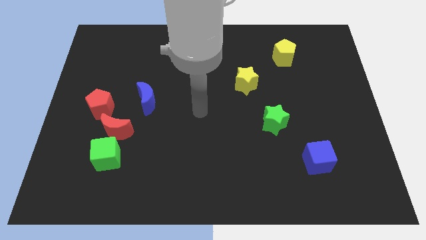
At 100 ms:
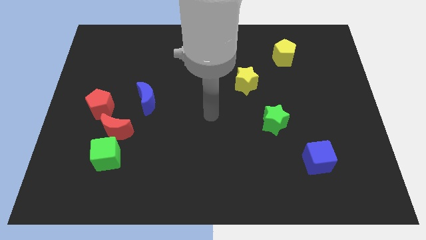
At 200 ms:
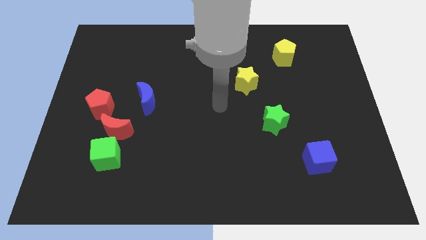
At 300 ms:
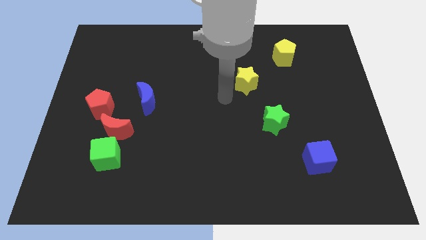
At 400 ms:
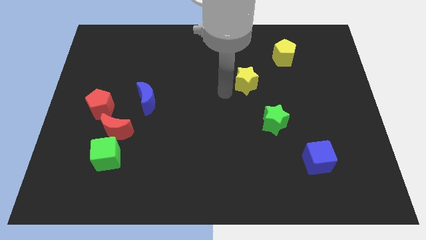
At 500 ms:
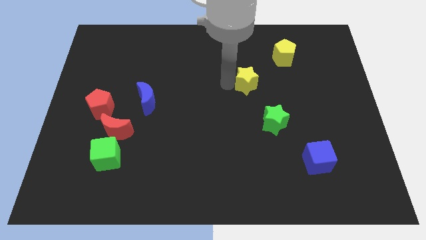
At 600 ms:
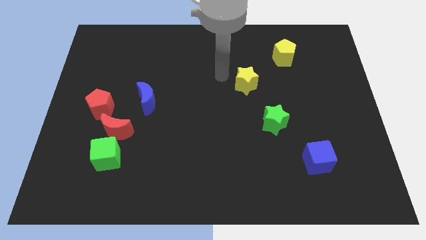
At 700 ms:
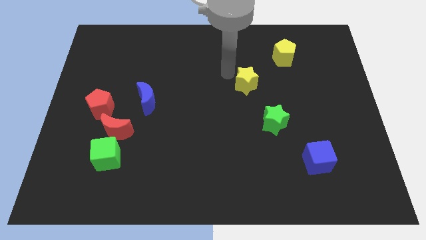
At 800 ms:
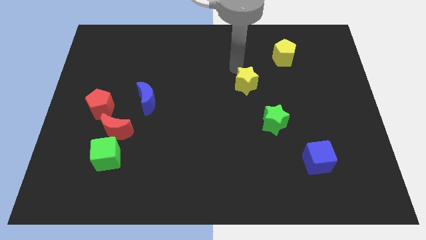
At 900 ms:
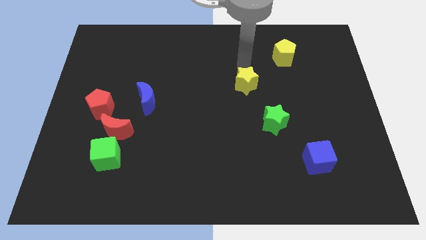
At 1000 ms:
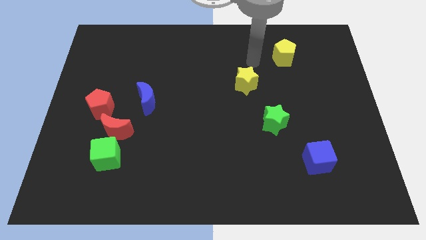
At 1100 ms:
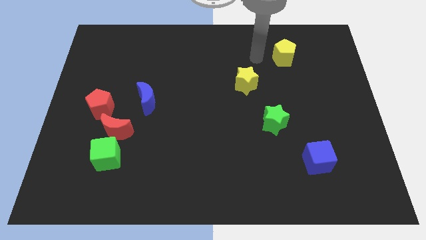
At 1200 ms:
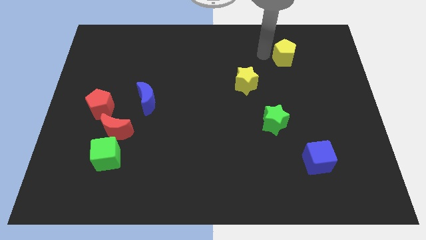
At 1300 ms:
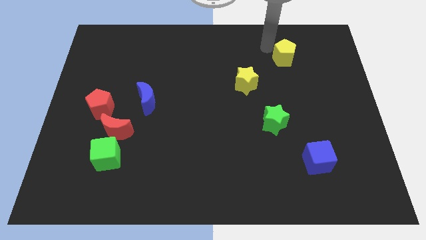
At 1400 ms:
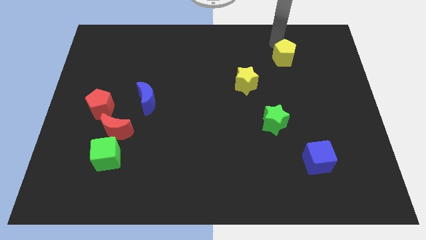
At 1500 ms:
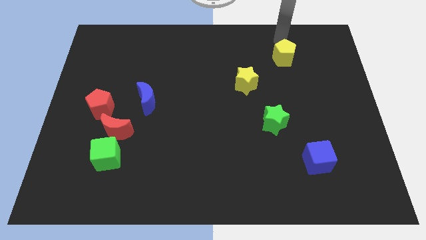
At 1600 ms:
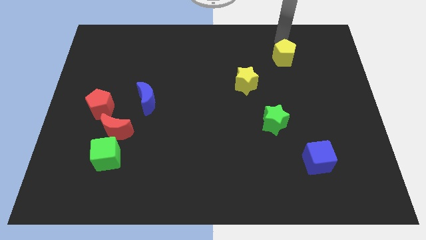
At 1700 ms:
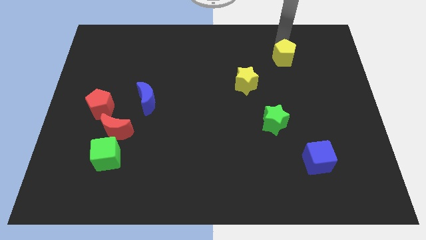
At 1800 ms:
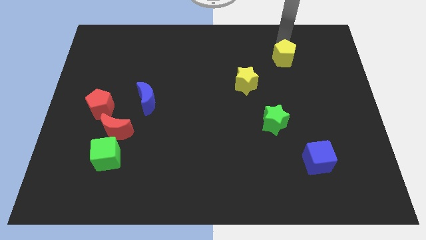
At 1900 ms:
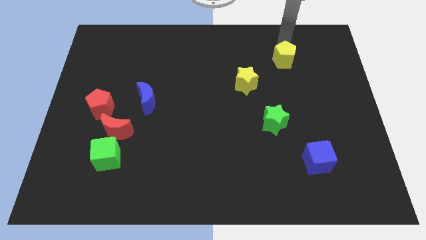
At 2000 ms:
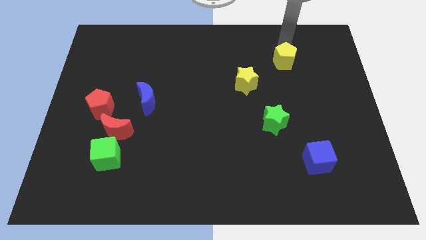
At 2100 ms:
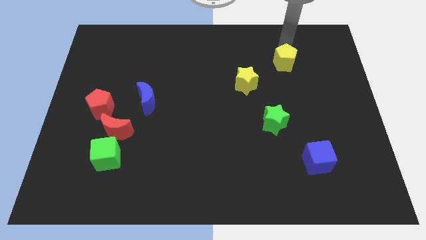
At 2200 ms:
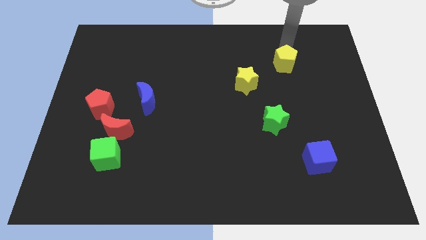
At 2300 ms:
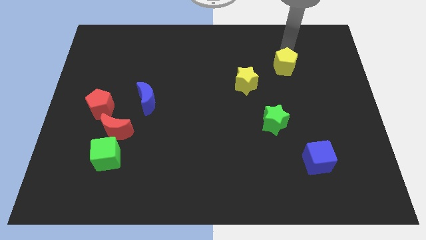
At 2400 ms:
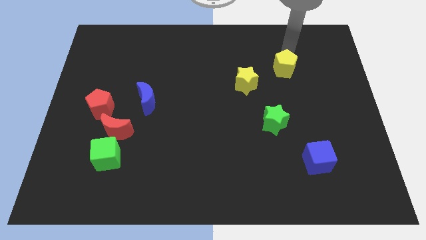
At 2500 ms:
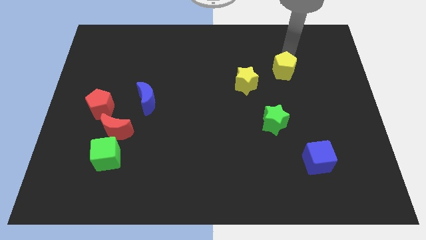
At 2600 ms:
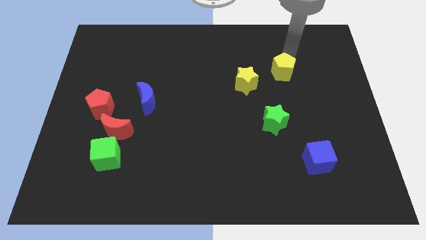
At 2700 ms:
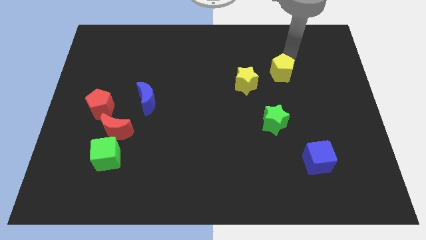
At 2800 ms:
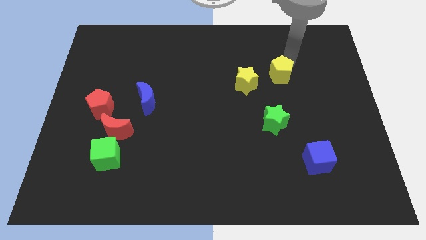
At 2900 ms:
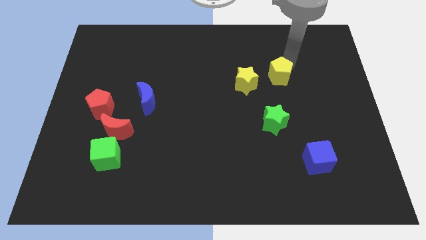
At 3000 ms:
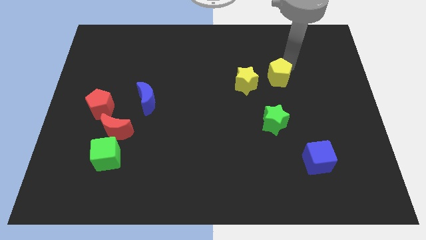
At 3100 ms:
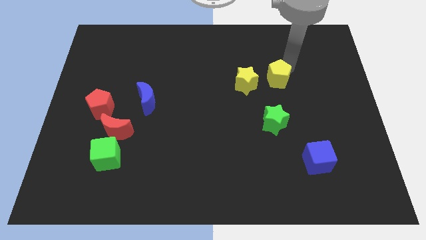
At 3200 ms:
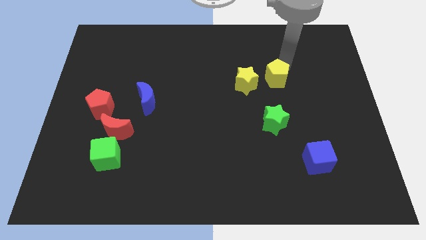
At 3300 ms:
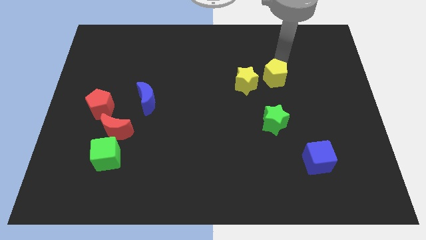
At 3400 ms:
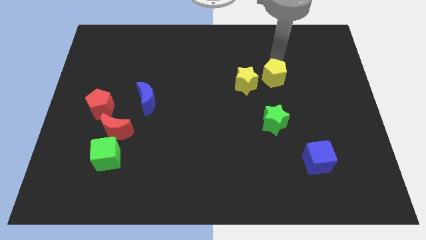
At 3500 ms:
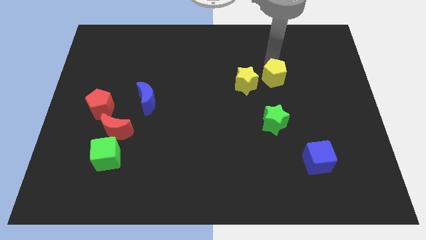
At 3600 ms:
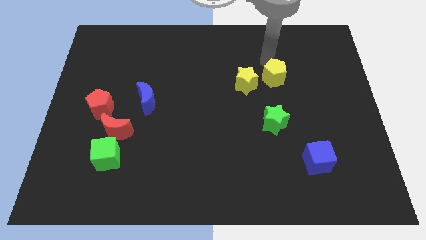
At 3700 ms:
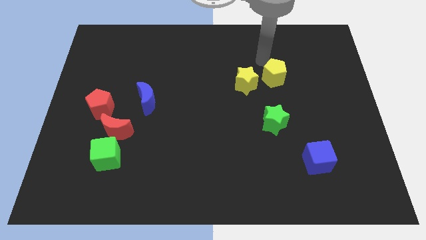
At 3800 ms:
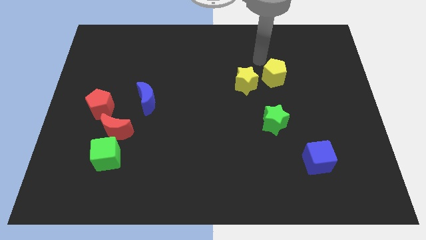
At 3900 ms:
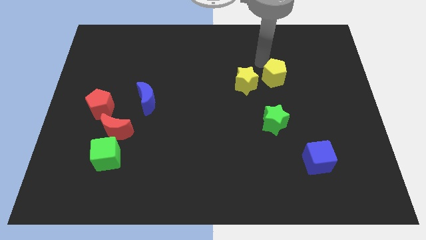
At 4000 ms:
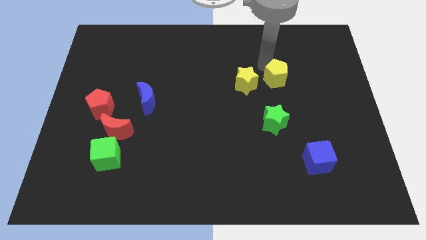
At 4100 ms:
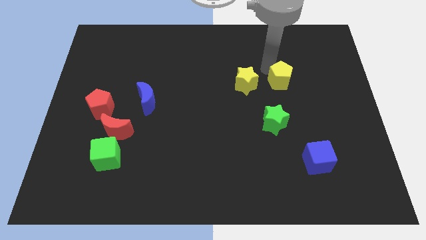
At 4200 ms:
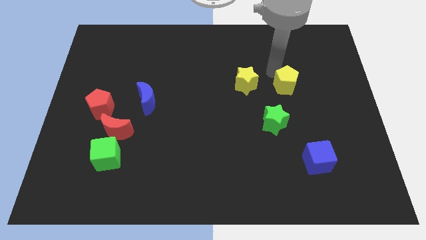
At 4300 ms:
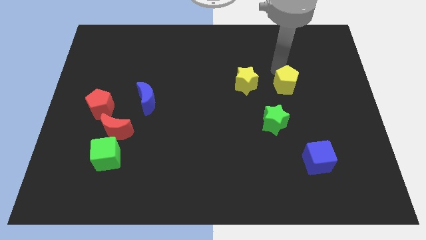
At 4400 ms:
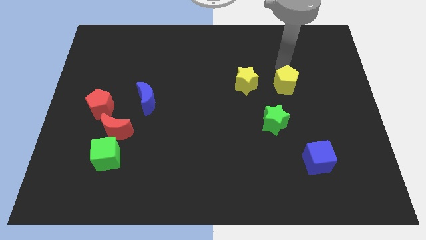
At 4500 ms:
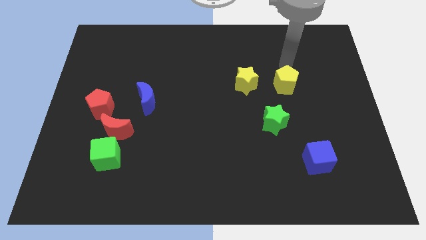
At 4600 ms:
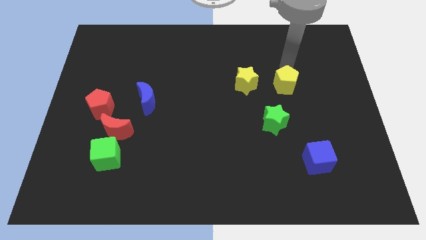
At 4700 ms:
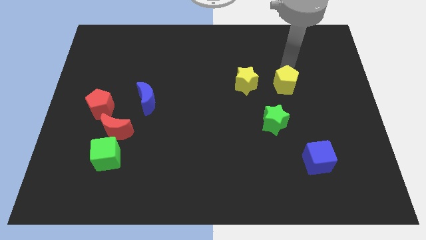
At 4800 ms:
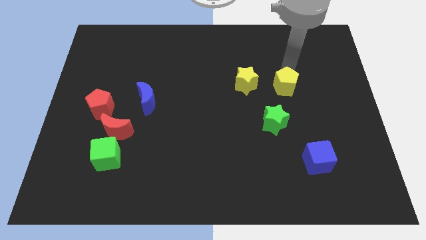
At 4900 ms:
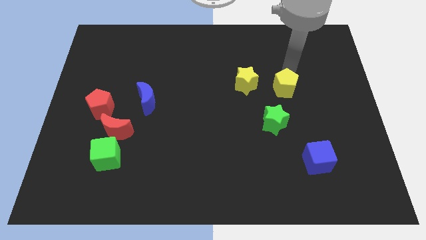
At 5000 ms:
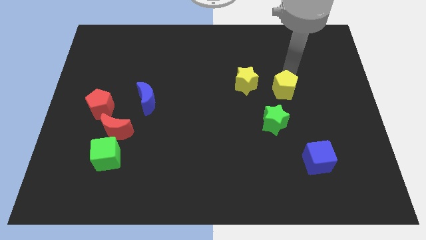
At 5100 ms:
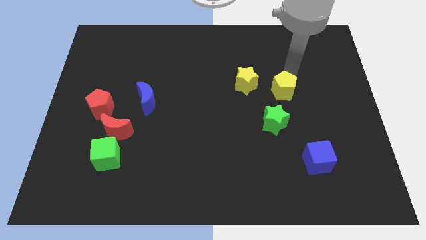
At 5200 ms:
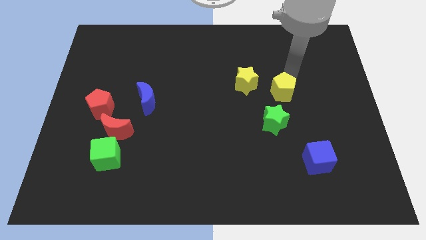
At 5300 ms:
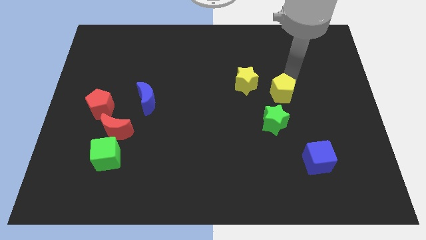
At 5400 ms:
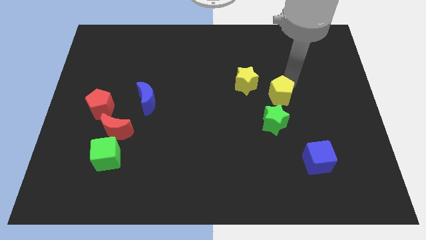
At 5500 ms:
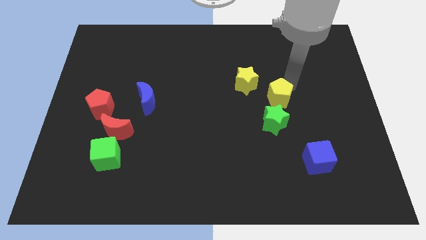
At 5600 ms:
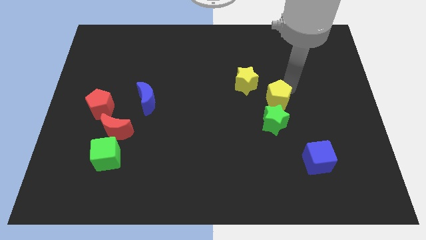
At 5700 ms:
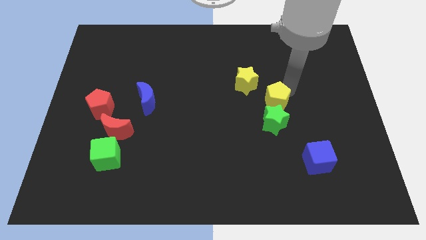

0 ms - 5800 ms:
slide the yellow pentagon to the green star
